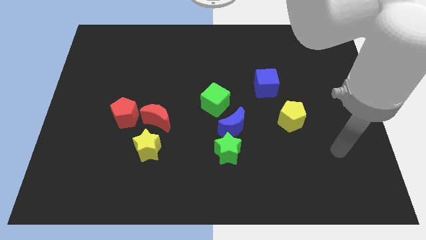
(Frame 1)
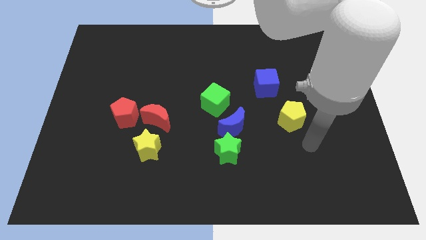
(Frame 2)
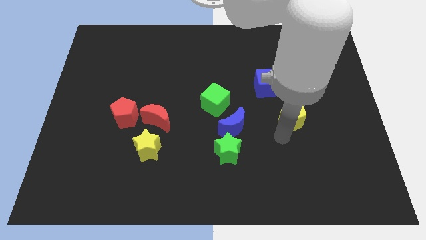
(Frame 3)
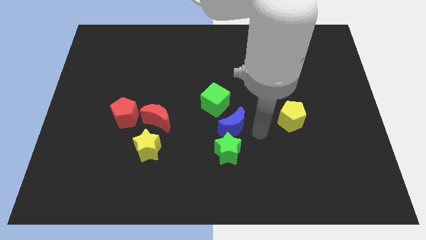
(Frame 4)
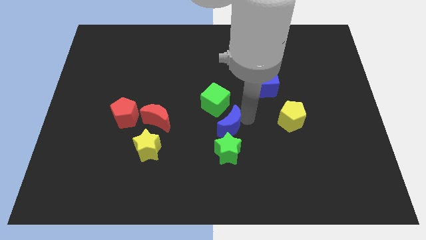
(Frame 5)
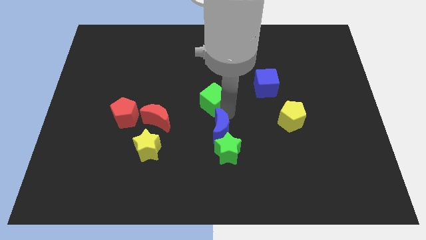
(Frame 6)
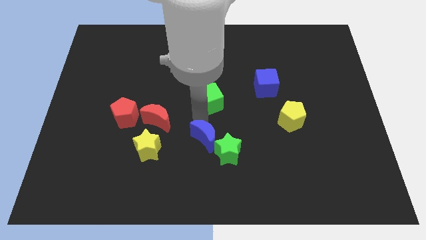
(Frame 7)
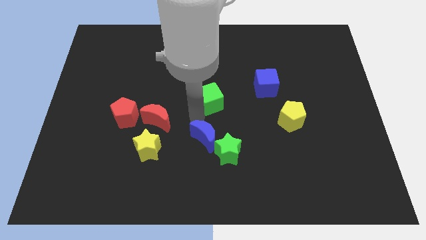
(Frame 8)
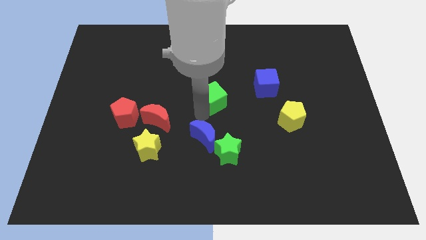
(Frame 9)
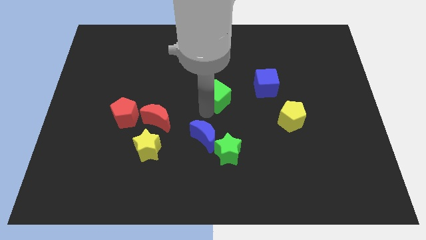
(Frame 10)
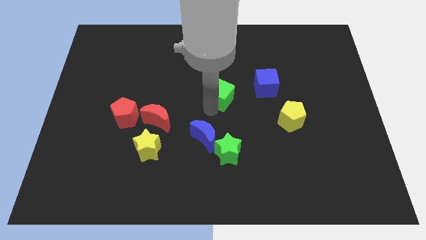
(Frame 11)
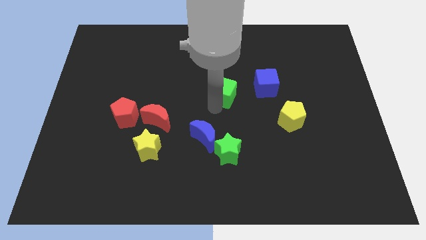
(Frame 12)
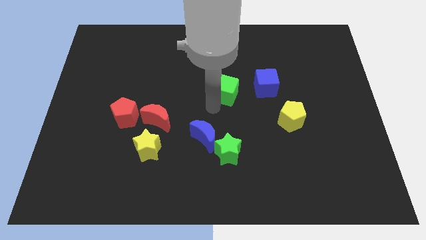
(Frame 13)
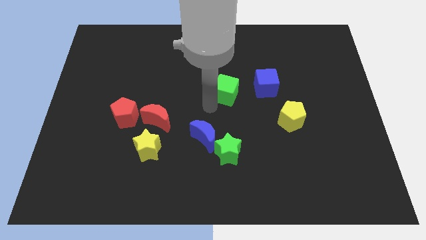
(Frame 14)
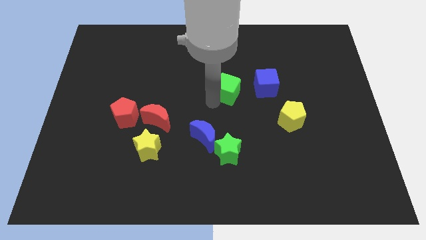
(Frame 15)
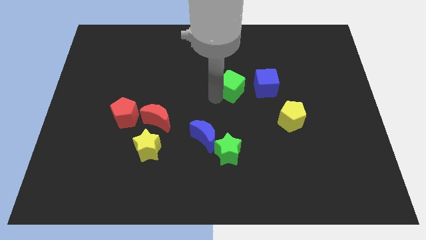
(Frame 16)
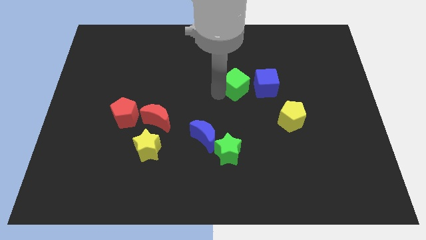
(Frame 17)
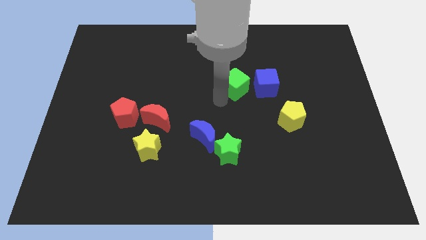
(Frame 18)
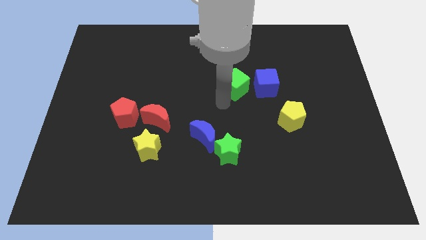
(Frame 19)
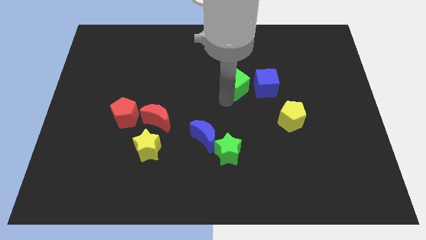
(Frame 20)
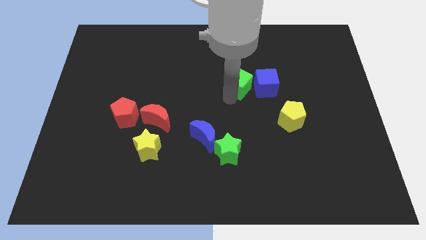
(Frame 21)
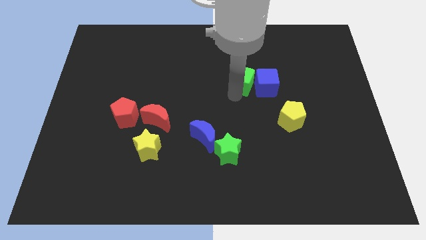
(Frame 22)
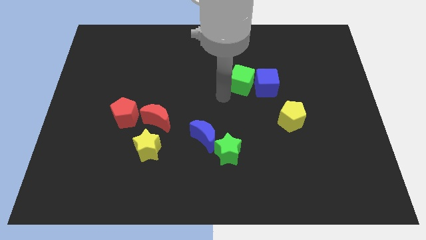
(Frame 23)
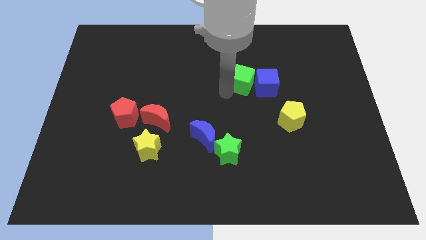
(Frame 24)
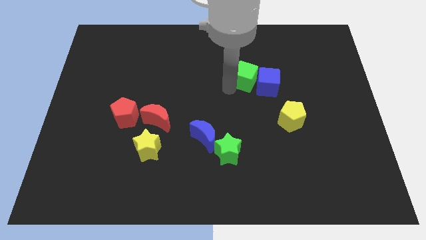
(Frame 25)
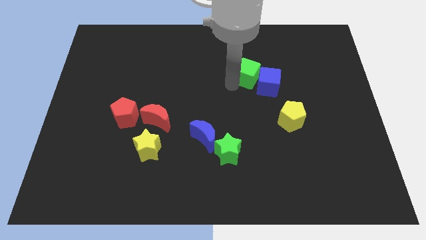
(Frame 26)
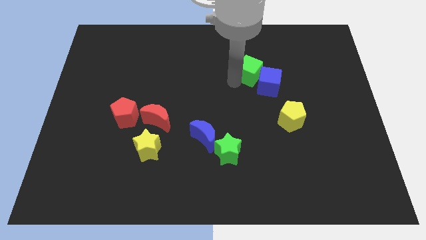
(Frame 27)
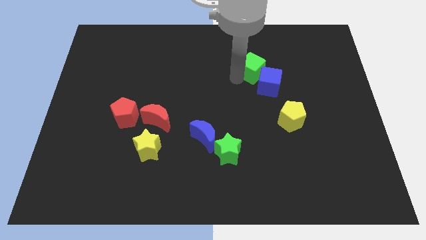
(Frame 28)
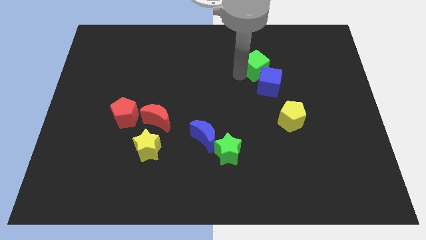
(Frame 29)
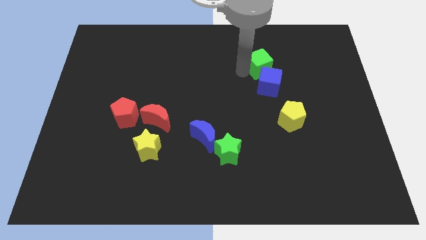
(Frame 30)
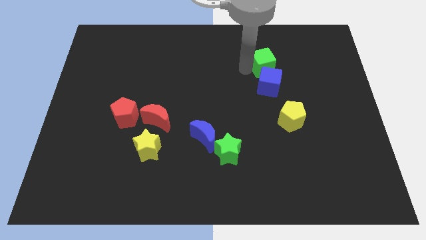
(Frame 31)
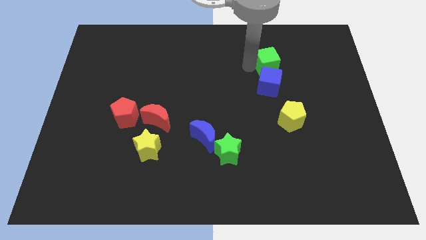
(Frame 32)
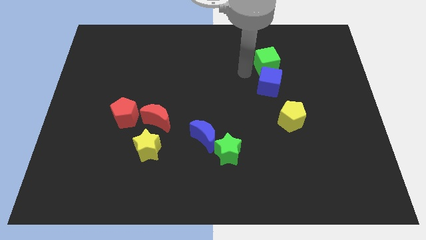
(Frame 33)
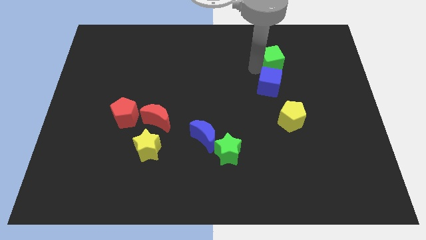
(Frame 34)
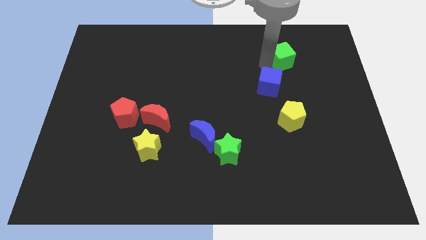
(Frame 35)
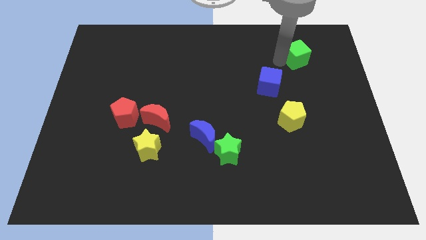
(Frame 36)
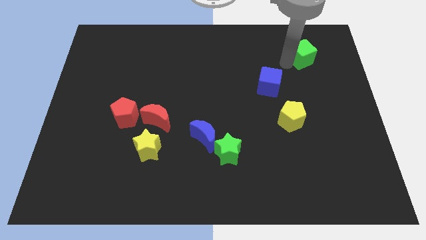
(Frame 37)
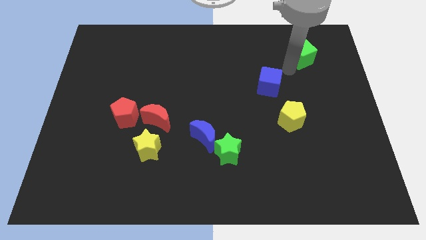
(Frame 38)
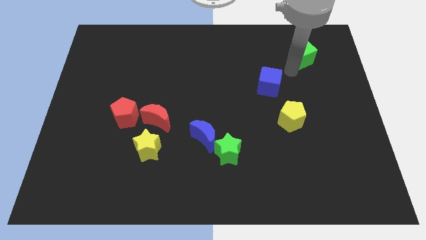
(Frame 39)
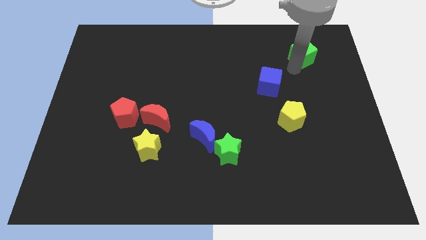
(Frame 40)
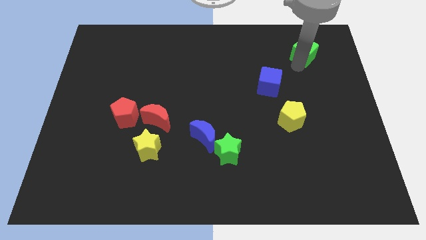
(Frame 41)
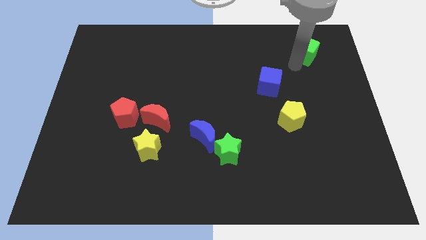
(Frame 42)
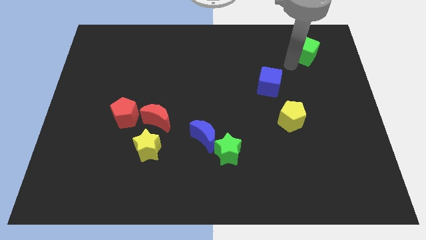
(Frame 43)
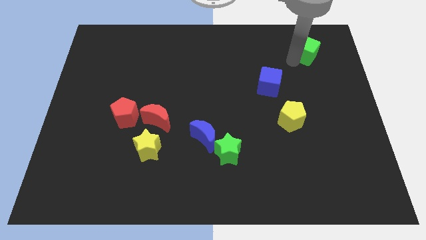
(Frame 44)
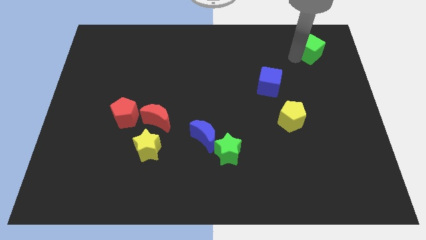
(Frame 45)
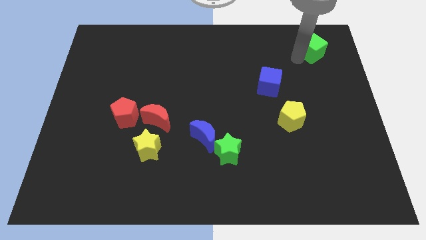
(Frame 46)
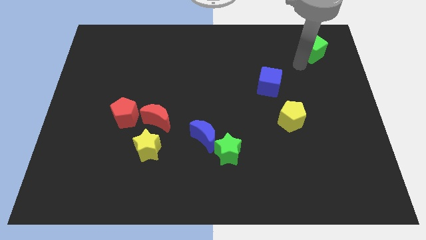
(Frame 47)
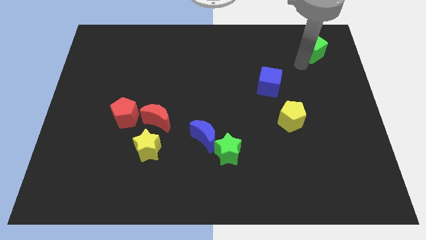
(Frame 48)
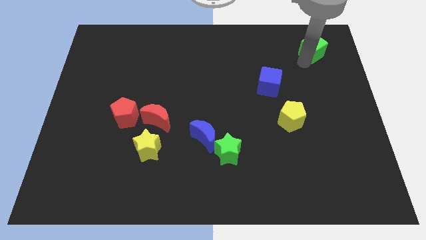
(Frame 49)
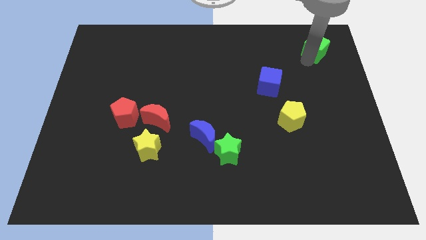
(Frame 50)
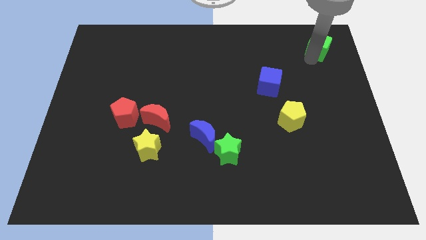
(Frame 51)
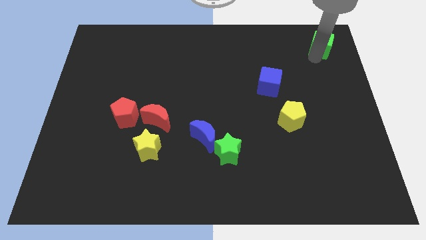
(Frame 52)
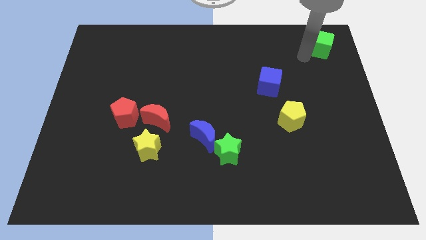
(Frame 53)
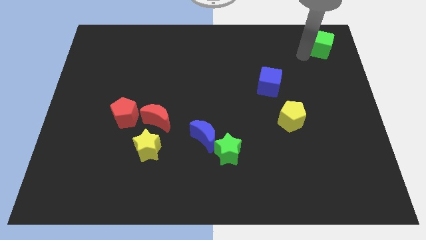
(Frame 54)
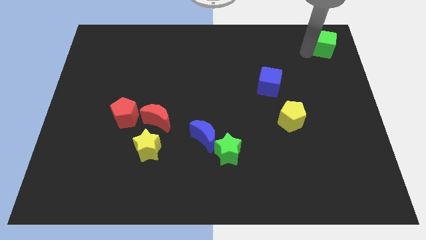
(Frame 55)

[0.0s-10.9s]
put the green cube to the upper right corner

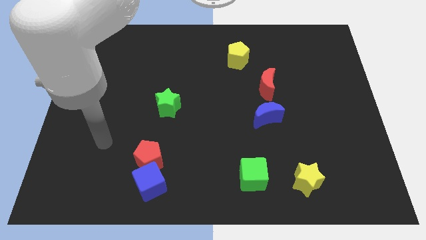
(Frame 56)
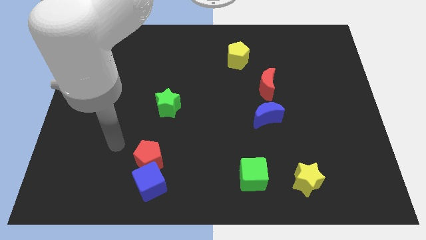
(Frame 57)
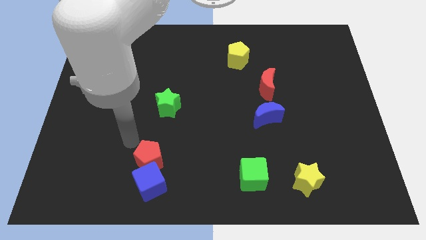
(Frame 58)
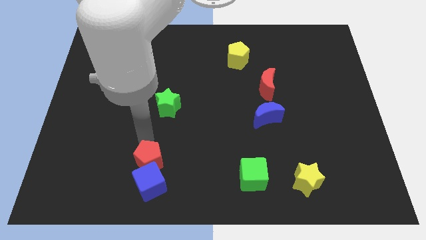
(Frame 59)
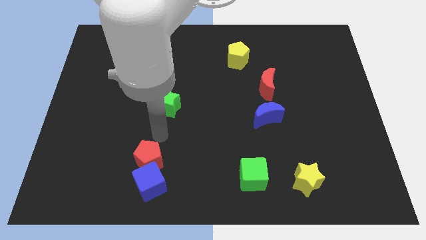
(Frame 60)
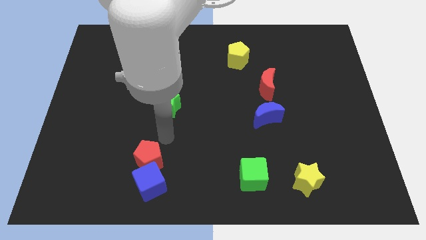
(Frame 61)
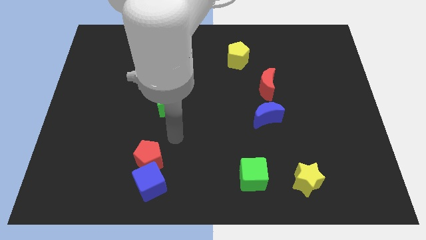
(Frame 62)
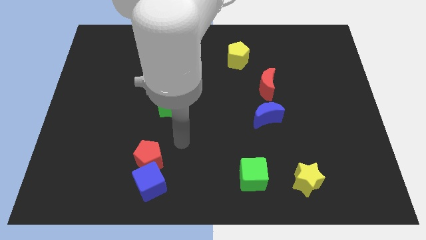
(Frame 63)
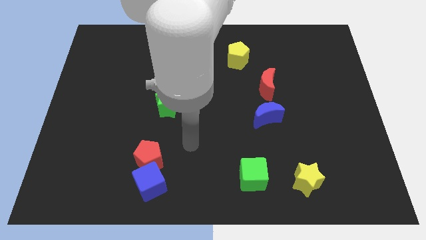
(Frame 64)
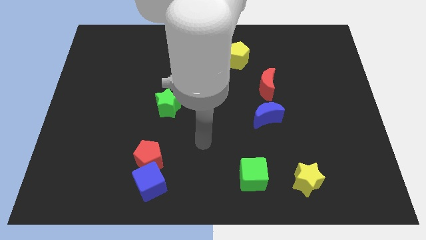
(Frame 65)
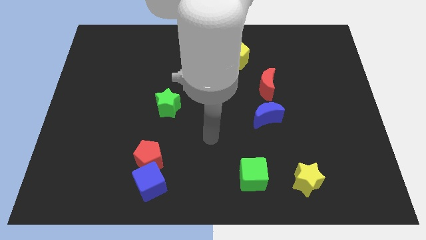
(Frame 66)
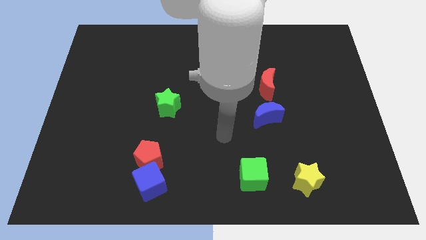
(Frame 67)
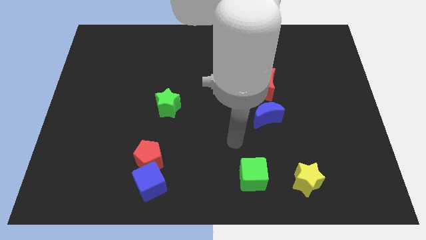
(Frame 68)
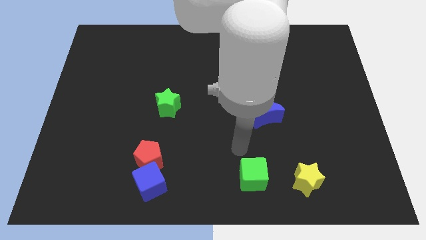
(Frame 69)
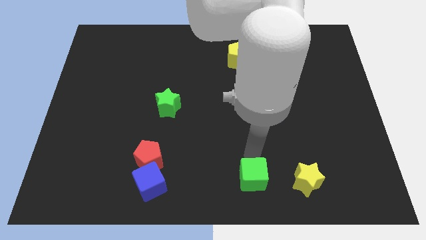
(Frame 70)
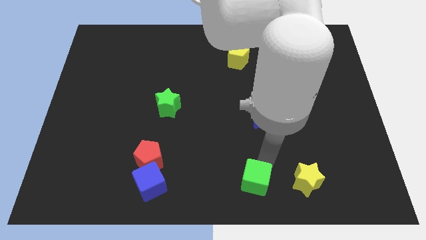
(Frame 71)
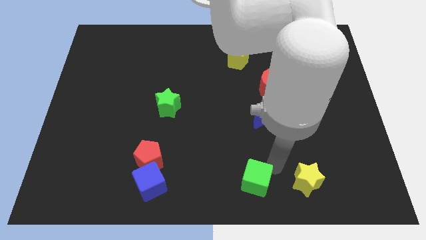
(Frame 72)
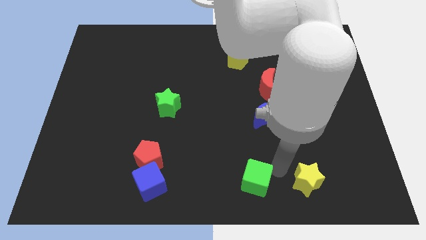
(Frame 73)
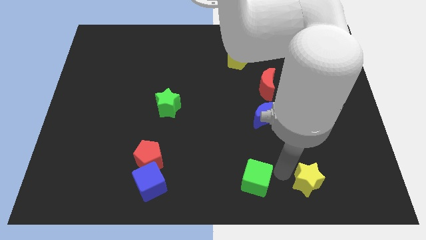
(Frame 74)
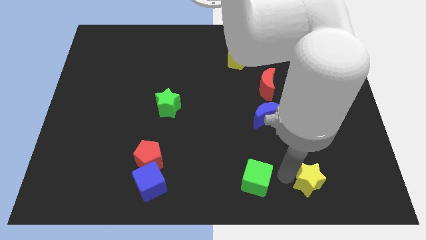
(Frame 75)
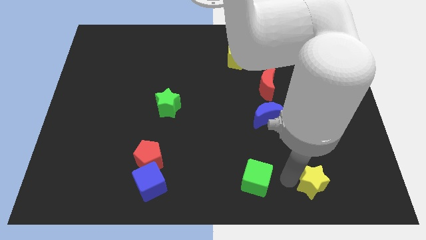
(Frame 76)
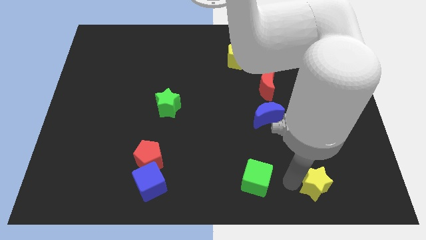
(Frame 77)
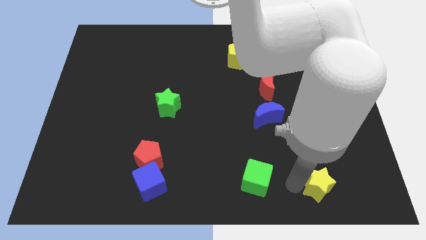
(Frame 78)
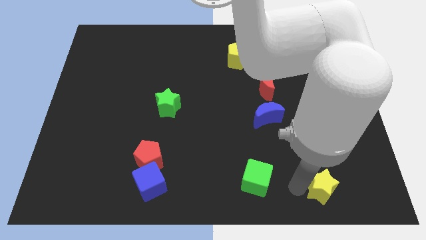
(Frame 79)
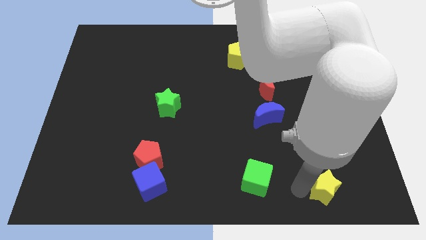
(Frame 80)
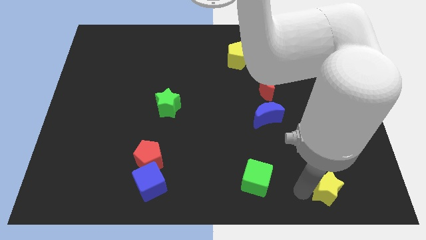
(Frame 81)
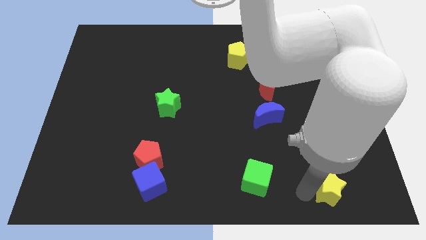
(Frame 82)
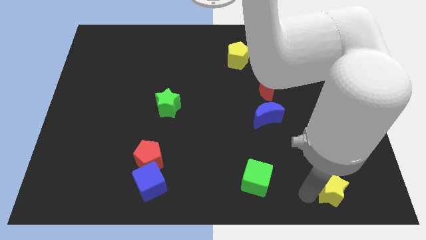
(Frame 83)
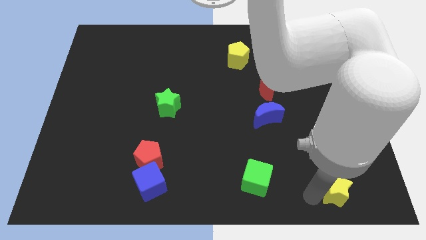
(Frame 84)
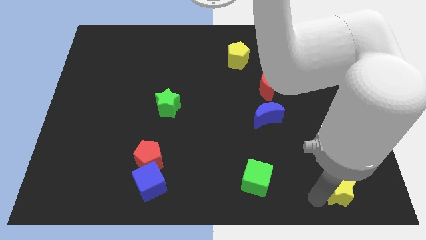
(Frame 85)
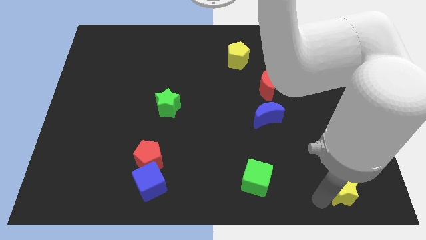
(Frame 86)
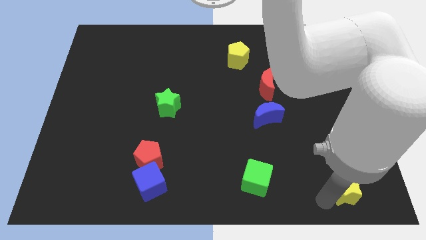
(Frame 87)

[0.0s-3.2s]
move the yellow star to the lower right corner
